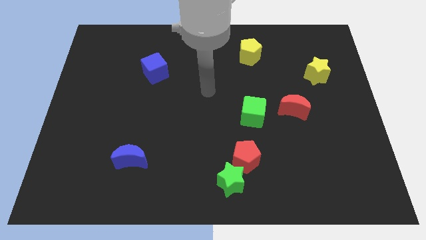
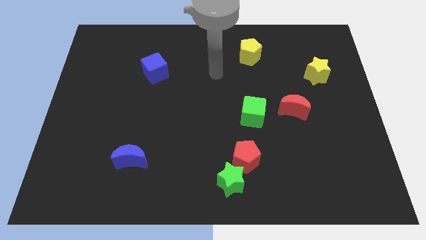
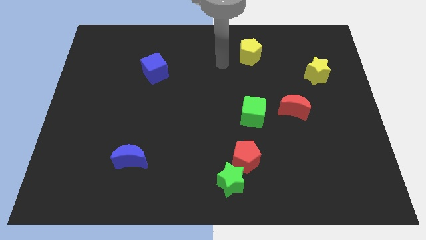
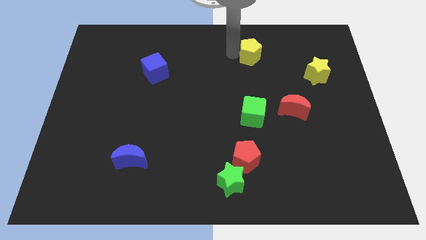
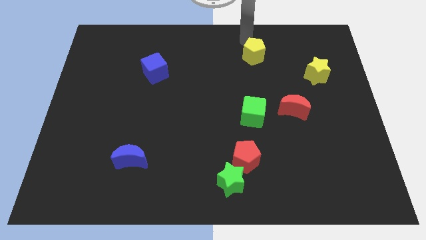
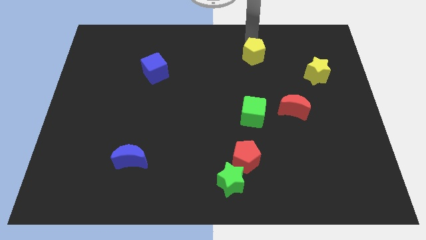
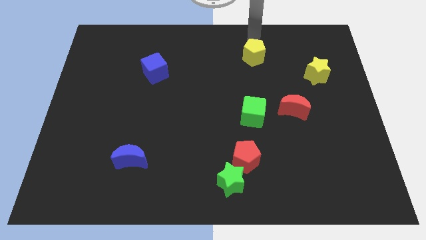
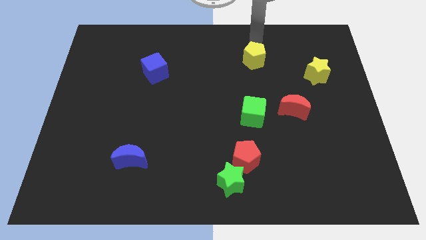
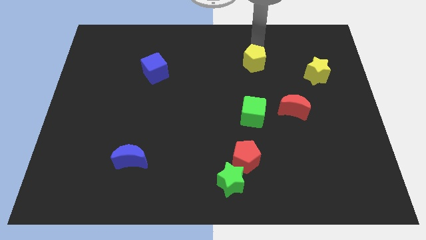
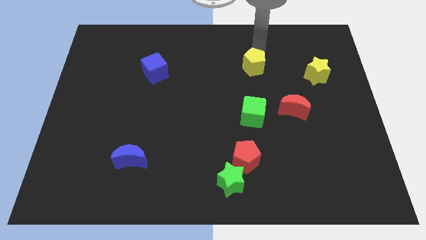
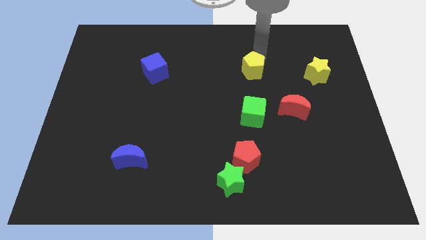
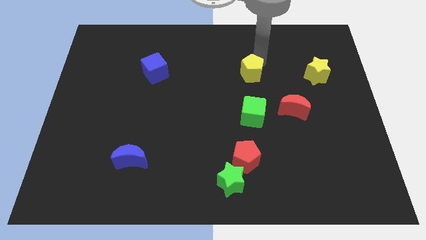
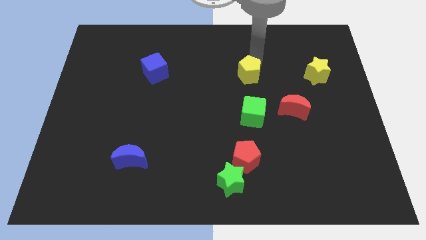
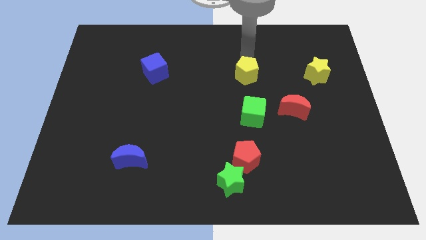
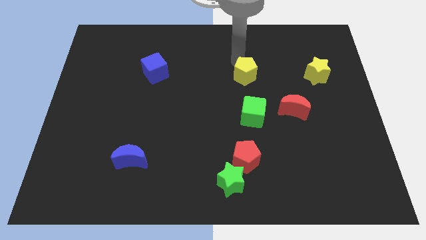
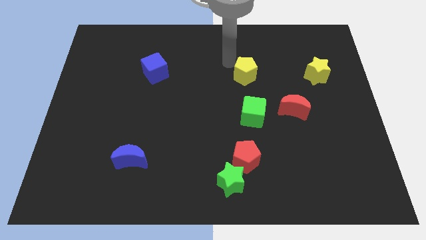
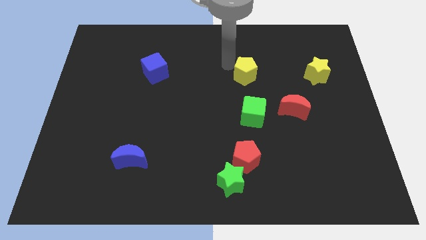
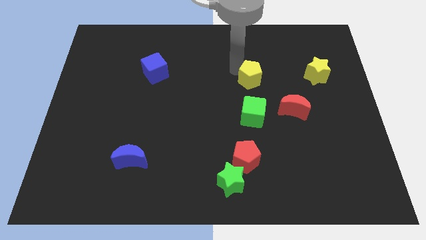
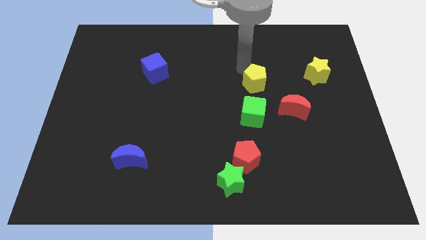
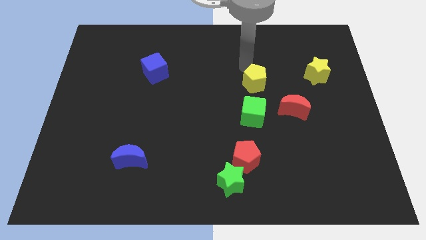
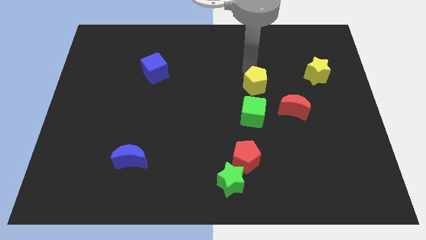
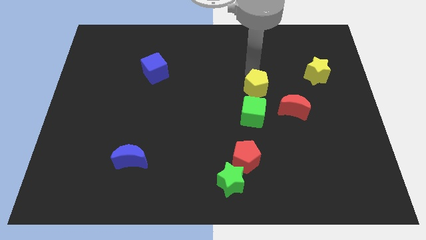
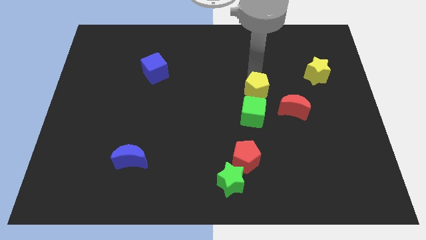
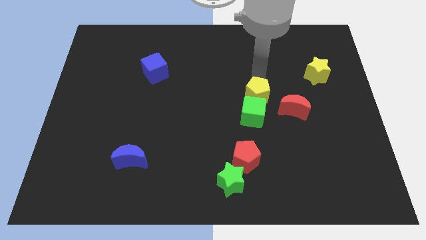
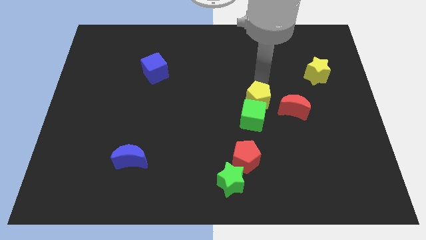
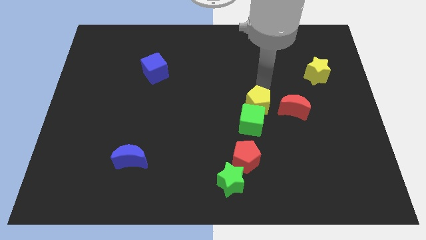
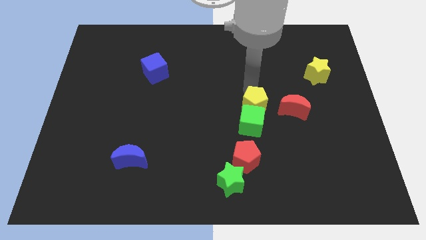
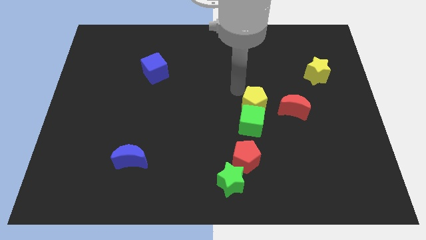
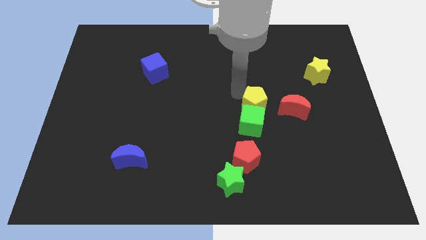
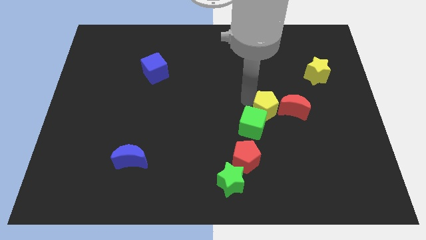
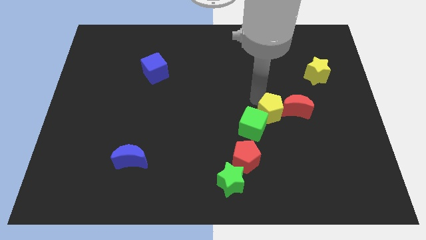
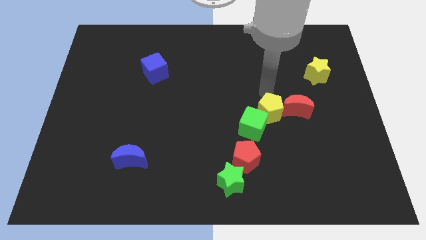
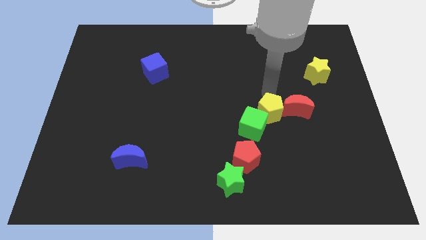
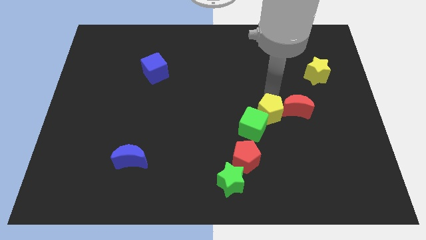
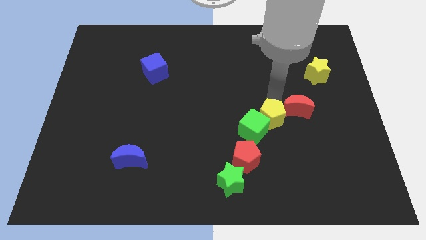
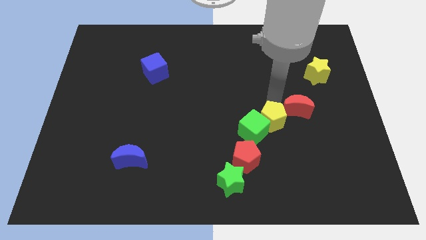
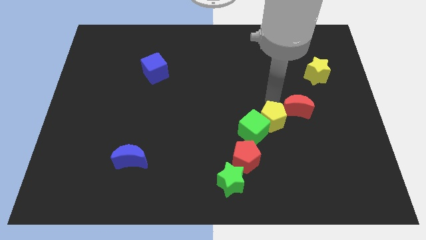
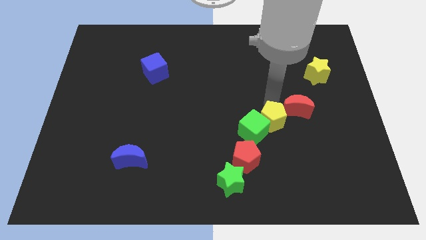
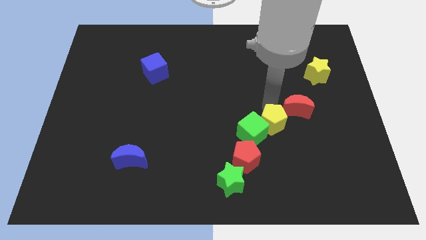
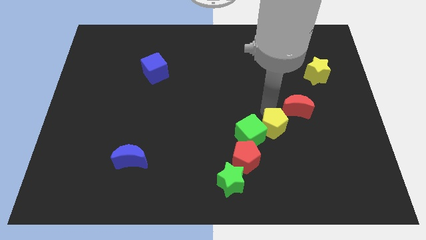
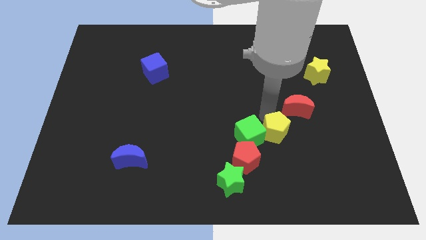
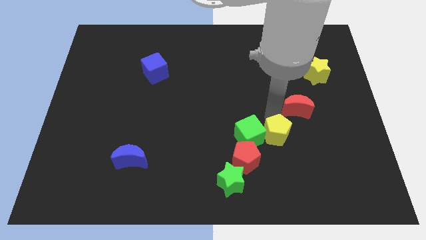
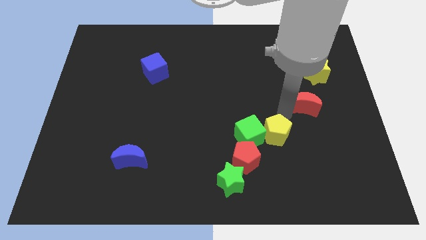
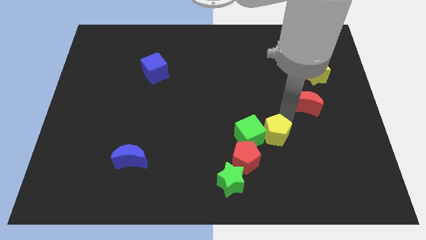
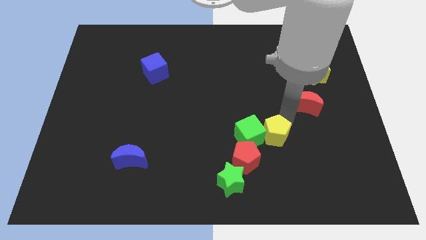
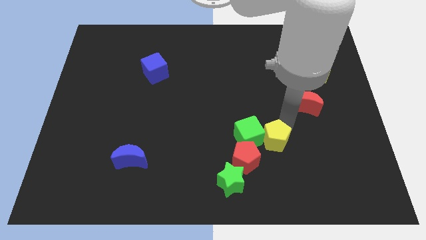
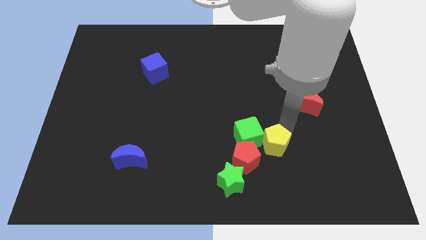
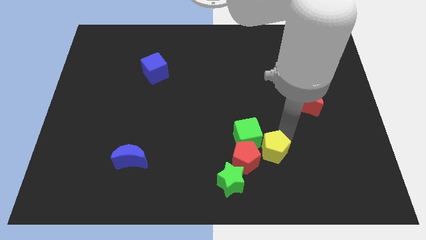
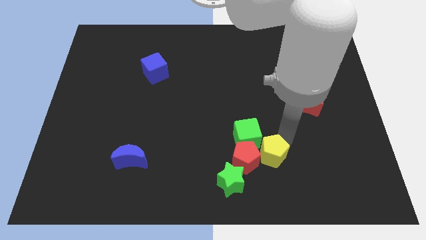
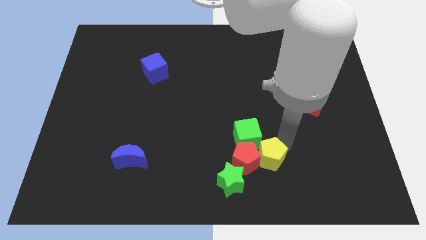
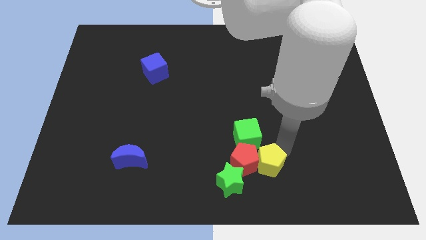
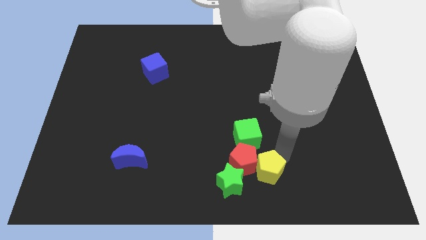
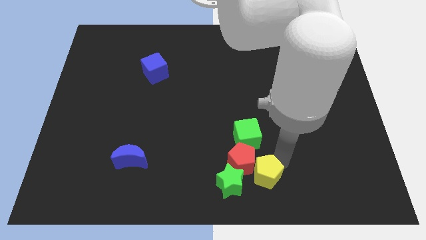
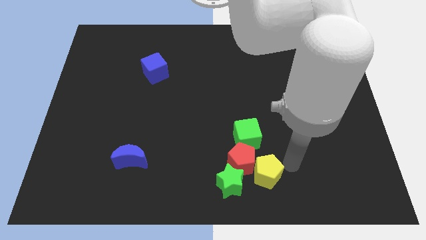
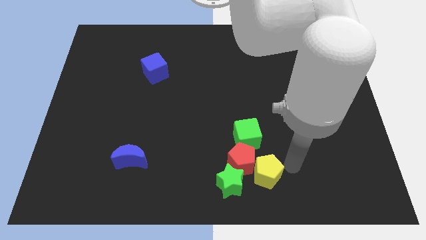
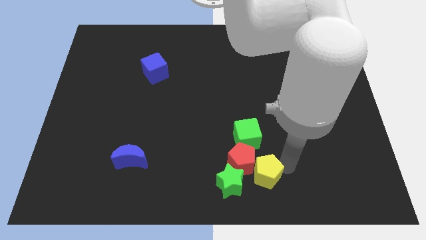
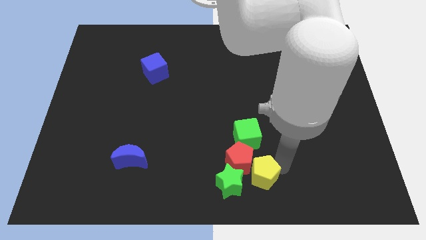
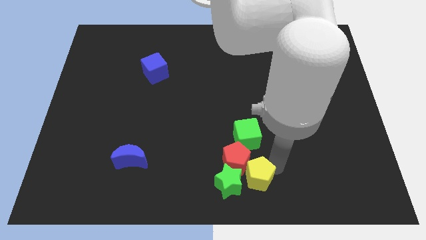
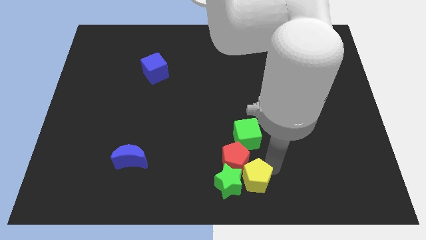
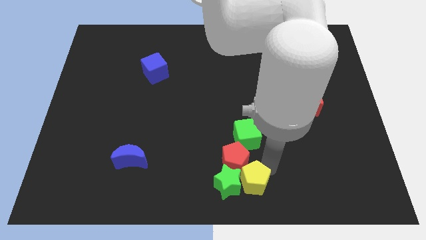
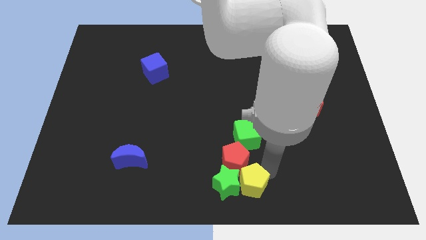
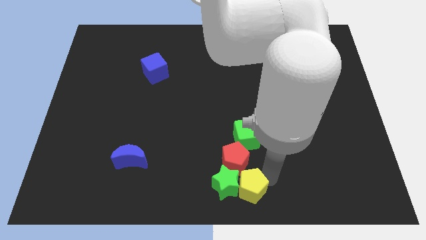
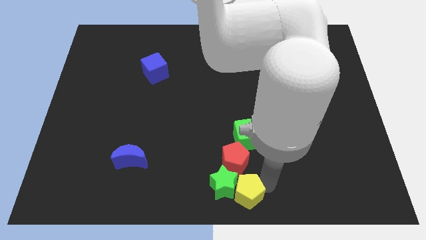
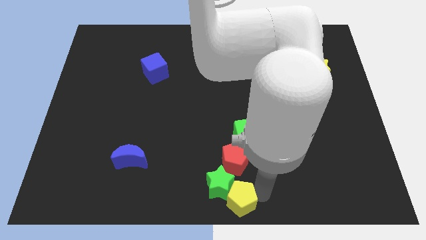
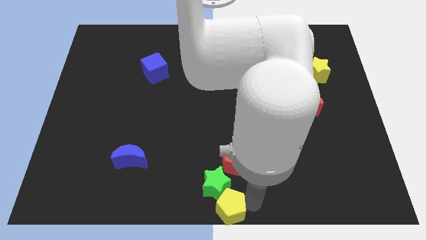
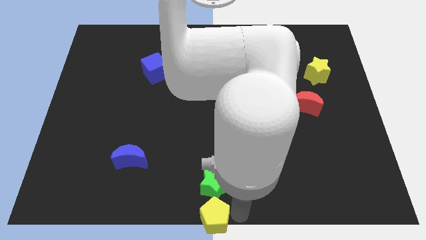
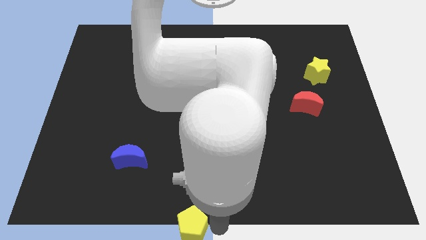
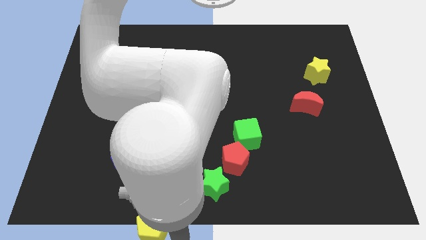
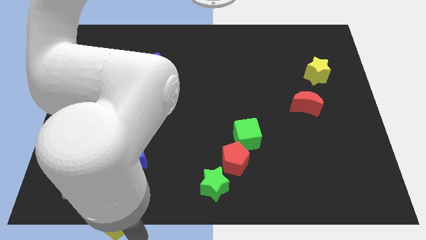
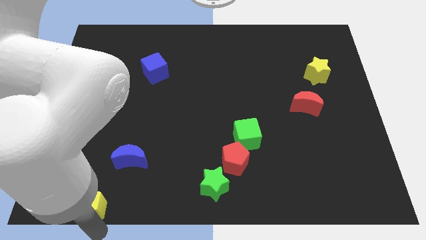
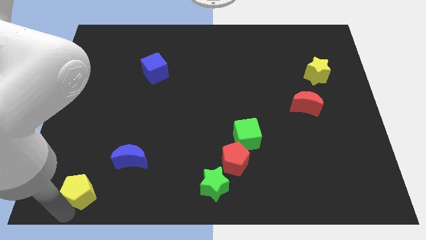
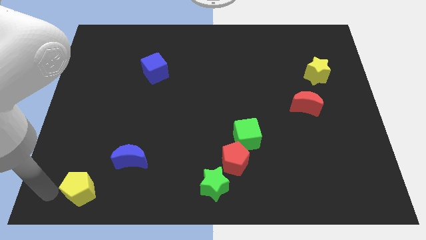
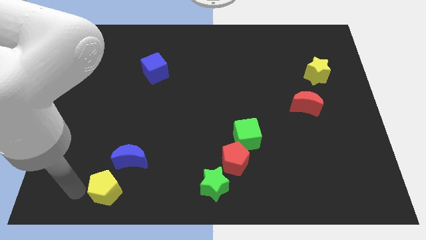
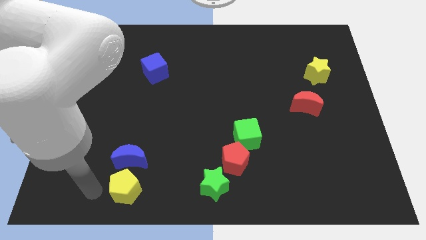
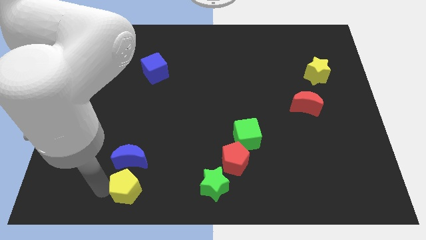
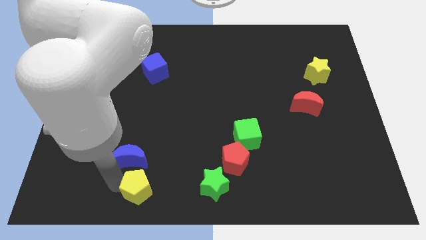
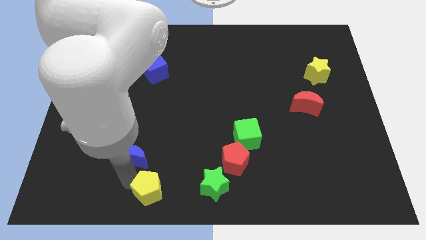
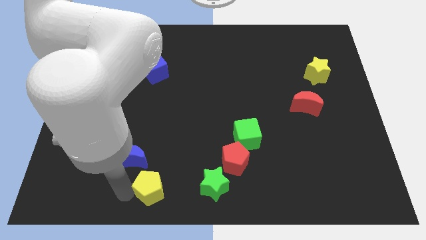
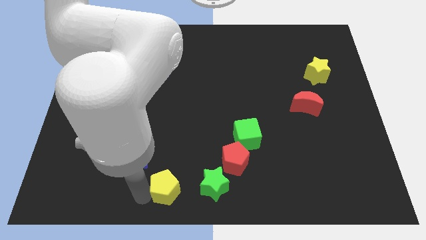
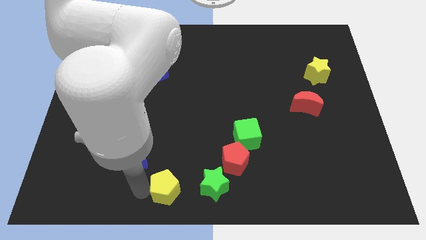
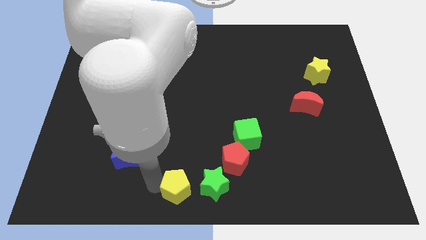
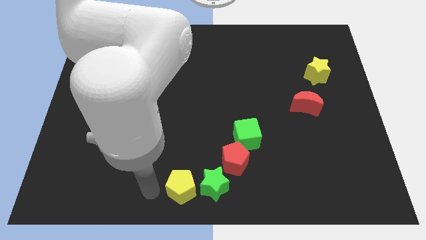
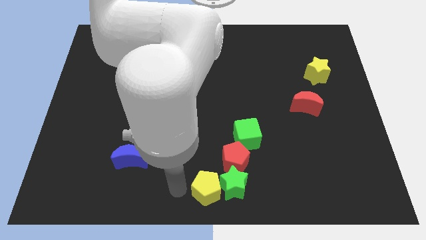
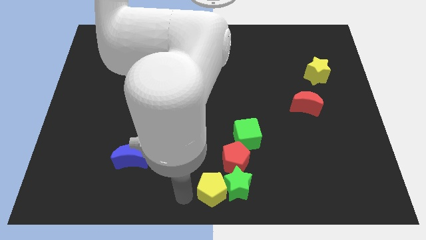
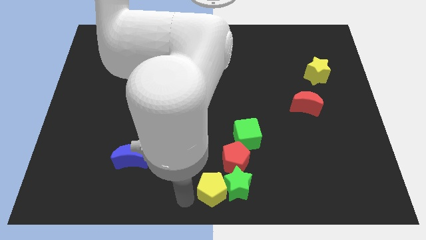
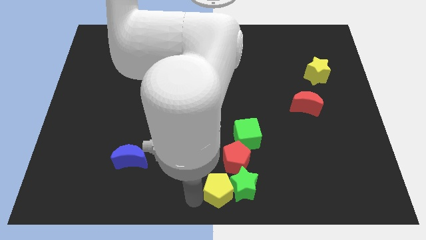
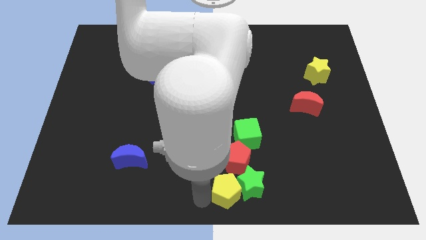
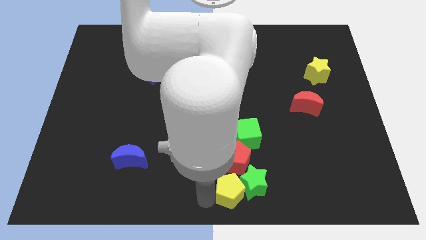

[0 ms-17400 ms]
move the yellow pentagon to the bottom of the green cube
